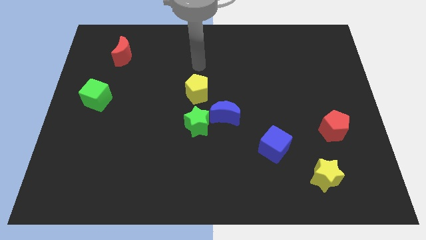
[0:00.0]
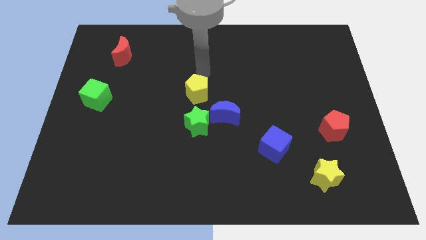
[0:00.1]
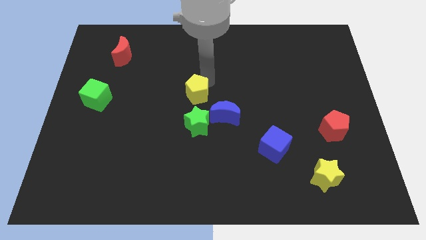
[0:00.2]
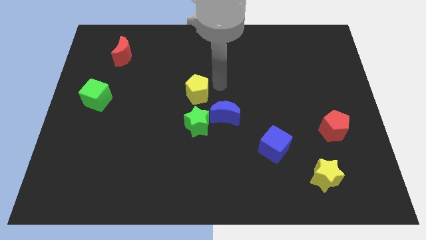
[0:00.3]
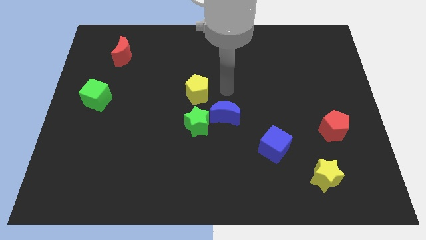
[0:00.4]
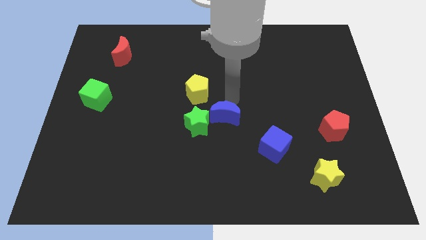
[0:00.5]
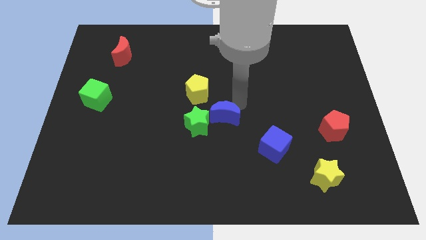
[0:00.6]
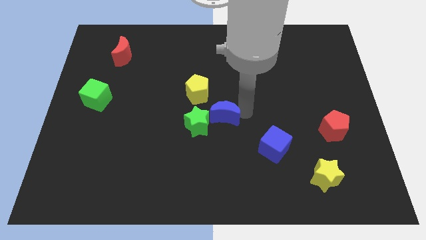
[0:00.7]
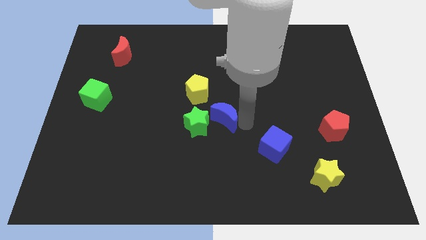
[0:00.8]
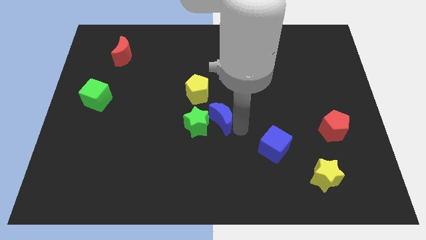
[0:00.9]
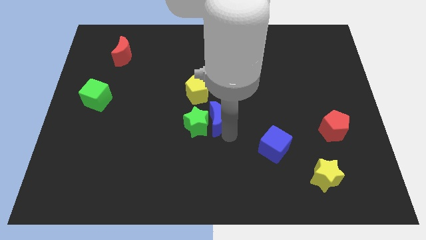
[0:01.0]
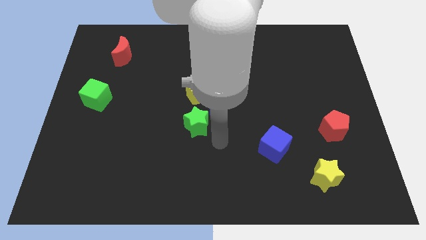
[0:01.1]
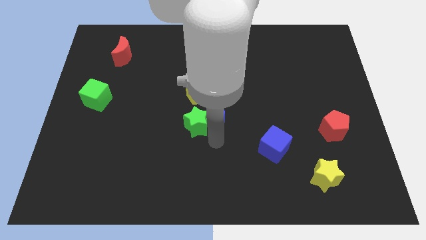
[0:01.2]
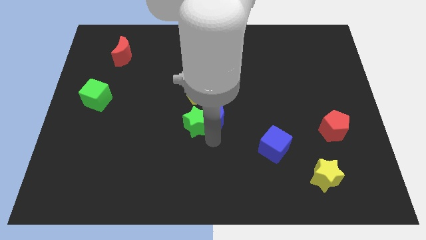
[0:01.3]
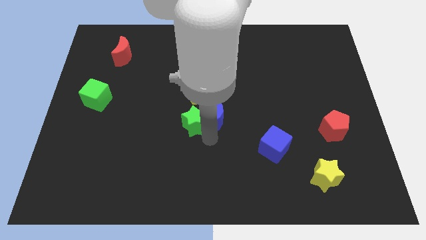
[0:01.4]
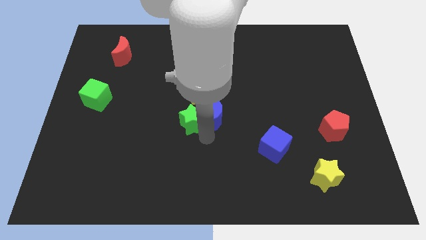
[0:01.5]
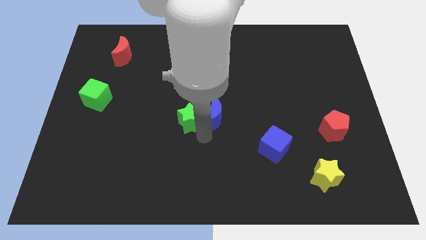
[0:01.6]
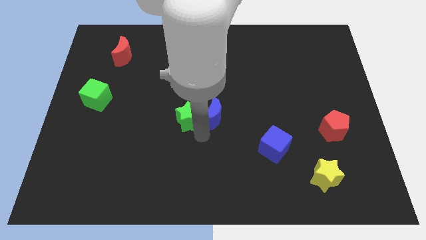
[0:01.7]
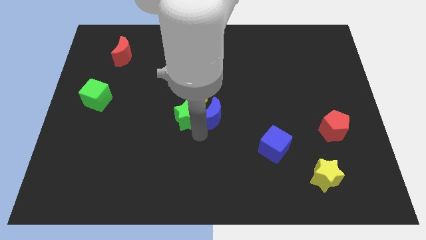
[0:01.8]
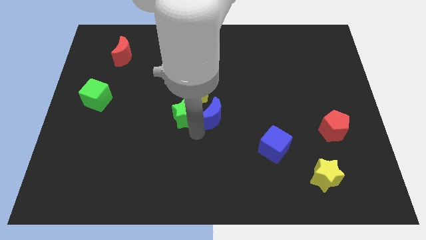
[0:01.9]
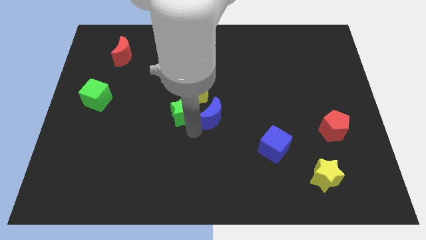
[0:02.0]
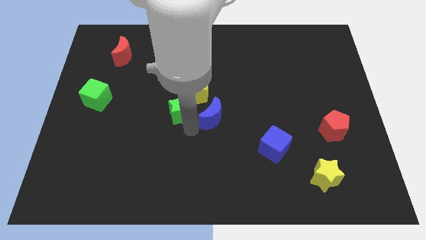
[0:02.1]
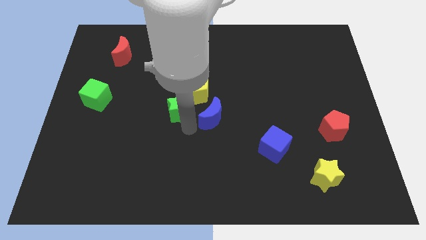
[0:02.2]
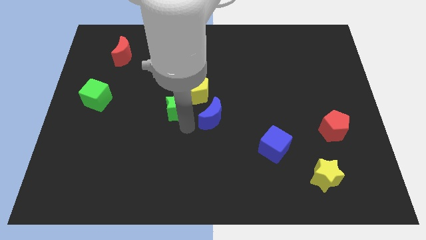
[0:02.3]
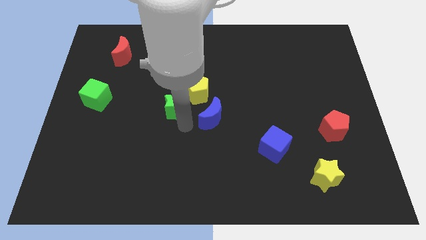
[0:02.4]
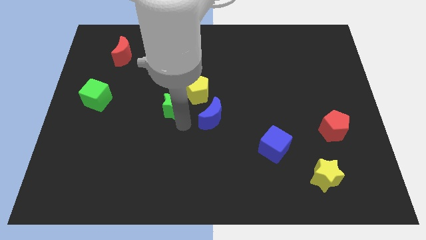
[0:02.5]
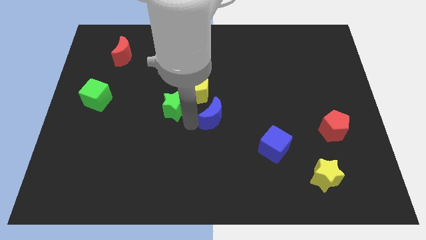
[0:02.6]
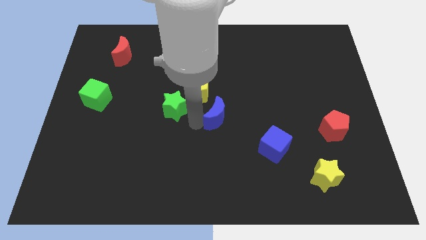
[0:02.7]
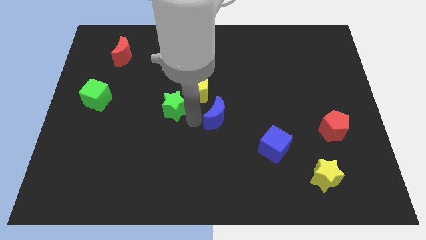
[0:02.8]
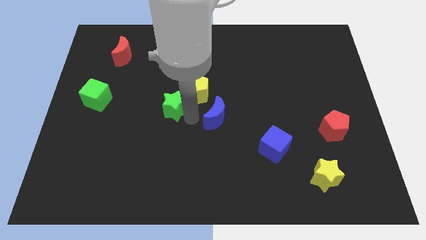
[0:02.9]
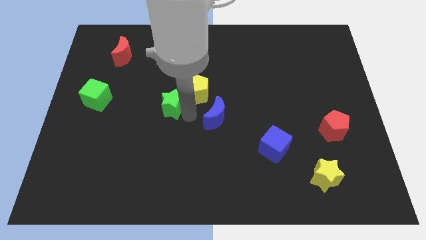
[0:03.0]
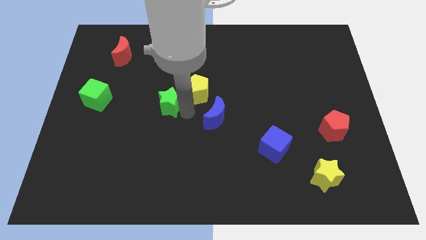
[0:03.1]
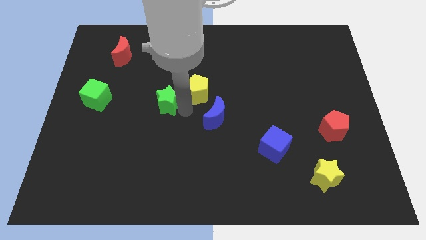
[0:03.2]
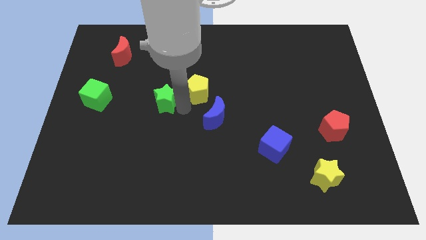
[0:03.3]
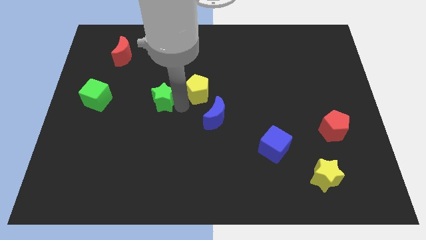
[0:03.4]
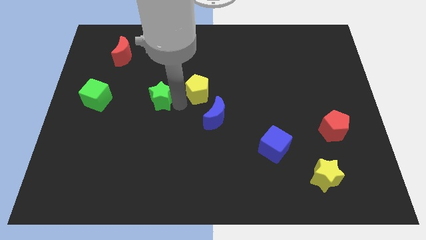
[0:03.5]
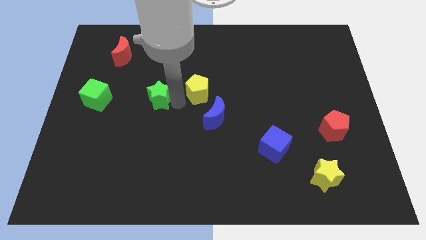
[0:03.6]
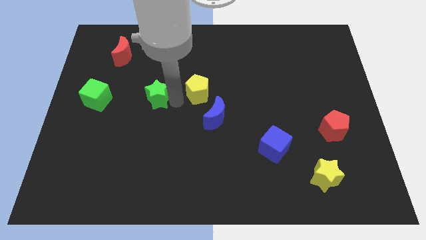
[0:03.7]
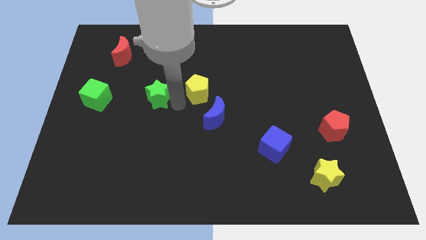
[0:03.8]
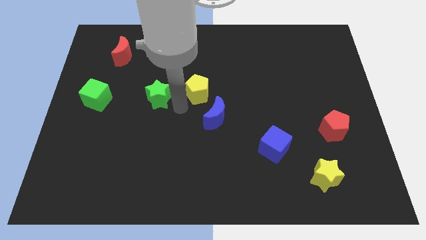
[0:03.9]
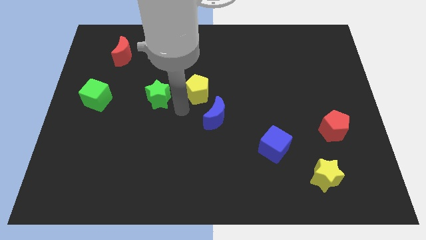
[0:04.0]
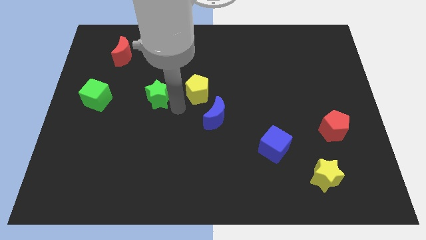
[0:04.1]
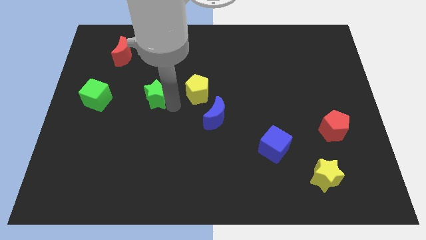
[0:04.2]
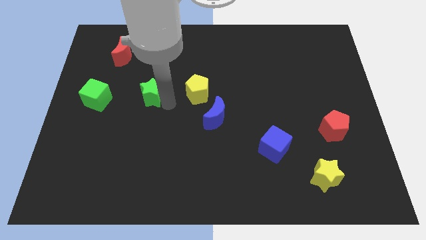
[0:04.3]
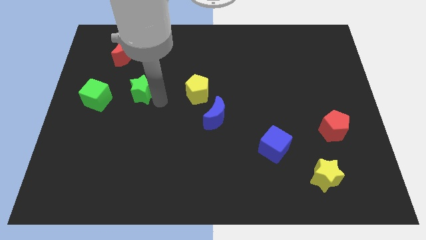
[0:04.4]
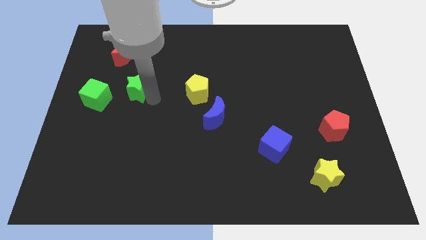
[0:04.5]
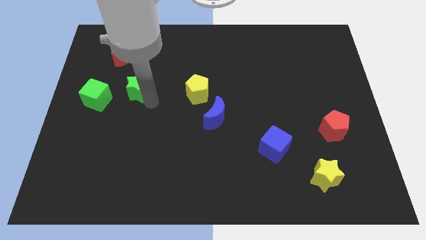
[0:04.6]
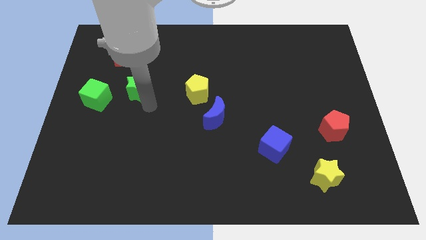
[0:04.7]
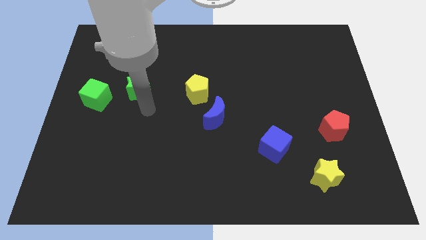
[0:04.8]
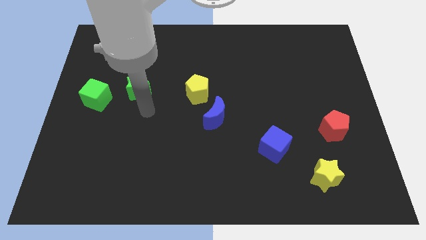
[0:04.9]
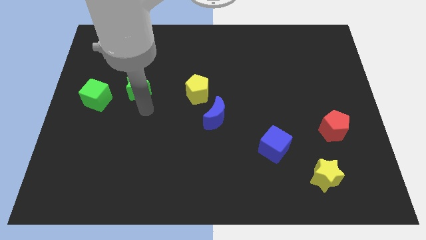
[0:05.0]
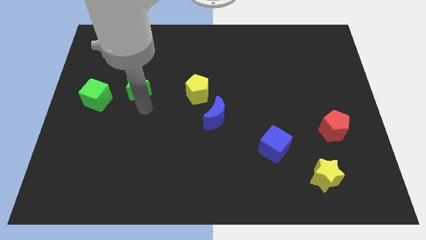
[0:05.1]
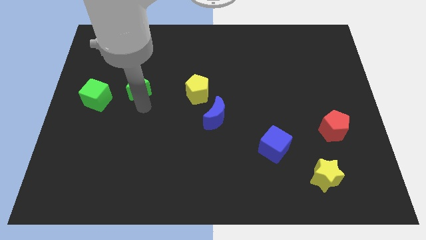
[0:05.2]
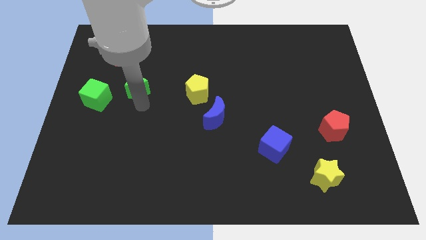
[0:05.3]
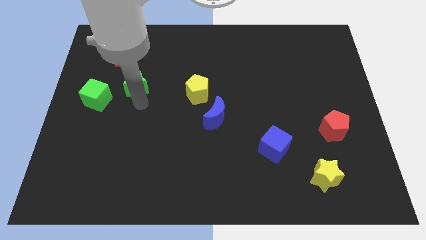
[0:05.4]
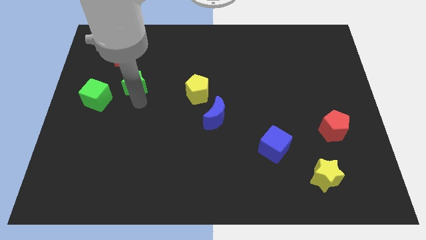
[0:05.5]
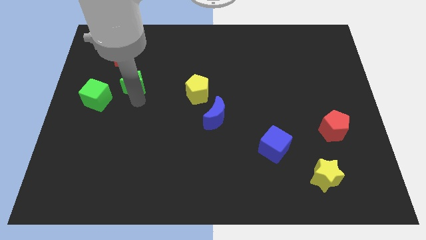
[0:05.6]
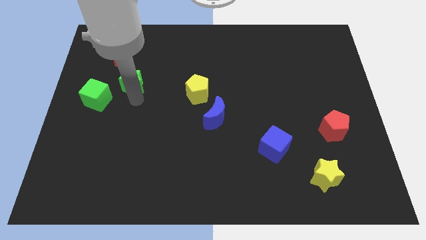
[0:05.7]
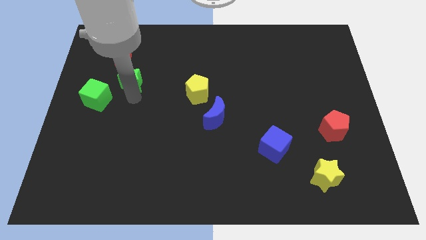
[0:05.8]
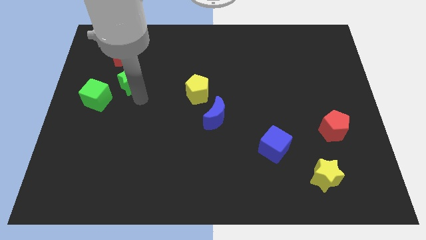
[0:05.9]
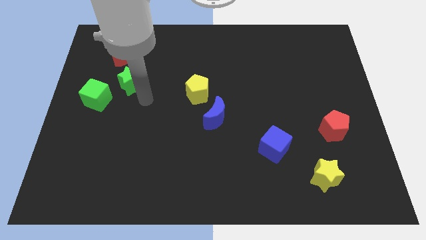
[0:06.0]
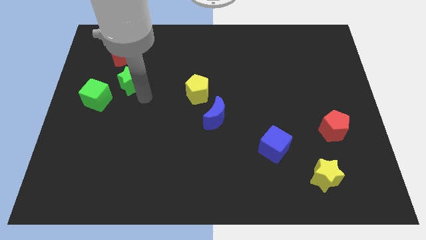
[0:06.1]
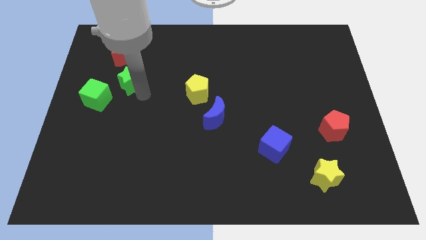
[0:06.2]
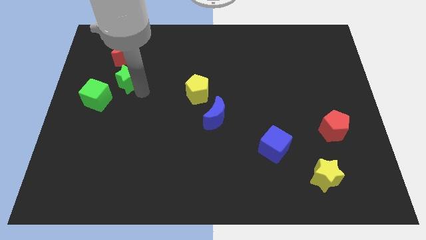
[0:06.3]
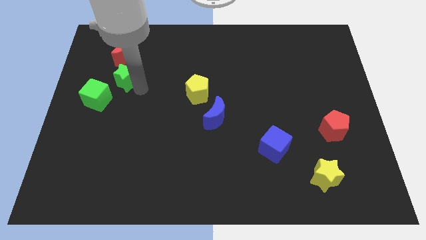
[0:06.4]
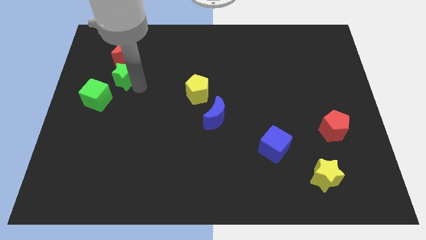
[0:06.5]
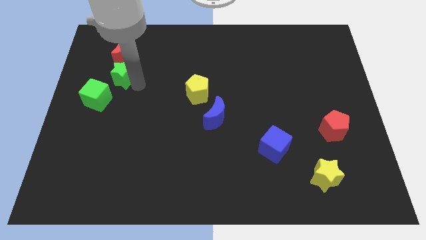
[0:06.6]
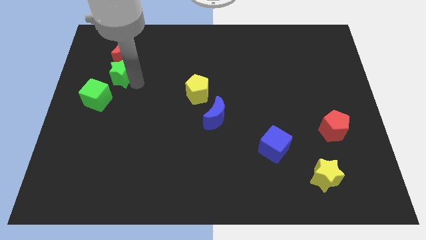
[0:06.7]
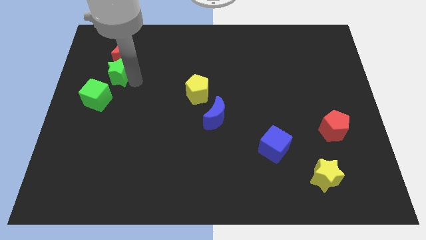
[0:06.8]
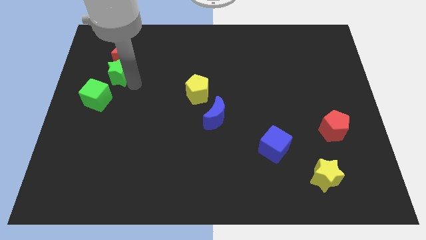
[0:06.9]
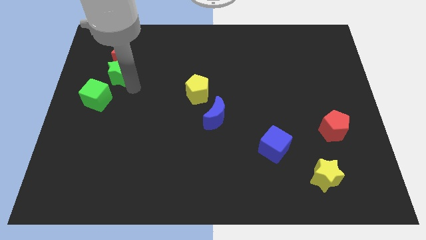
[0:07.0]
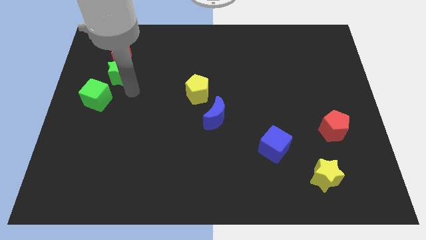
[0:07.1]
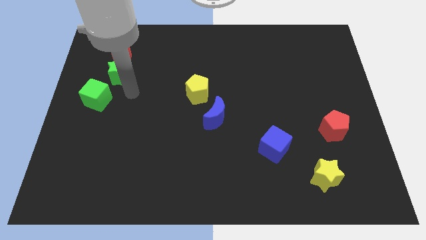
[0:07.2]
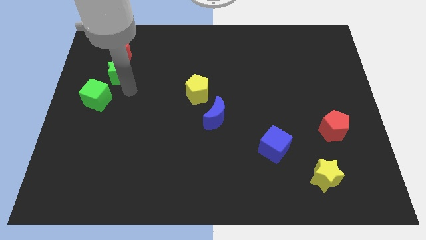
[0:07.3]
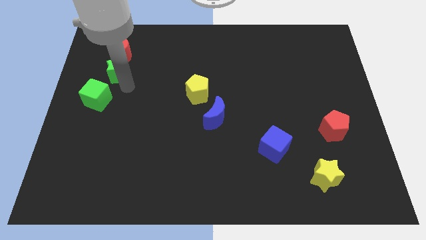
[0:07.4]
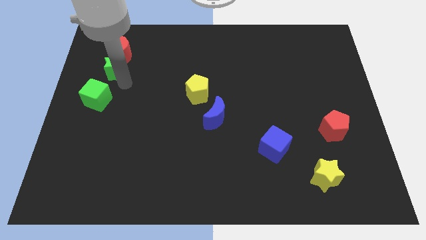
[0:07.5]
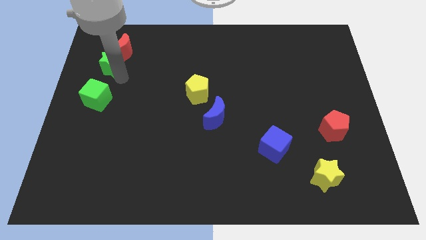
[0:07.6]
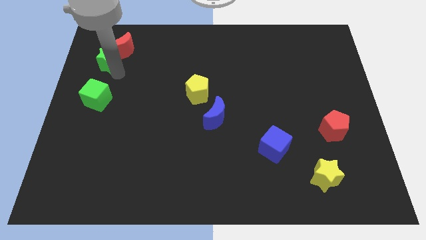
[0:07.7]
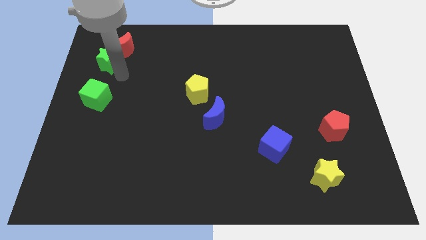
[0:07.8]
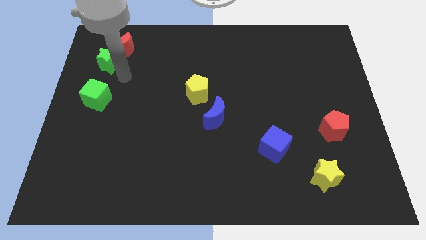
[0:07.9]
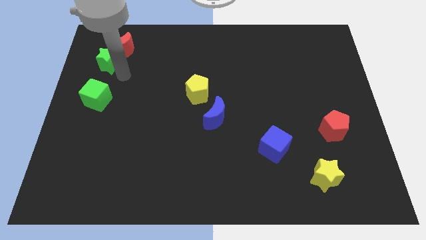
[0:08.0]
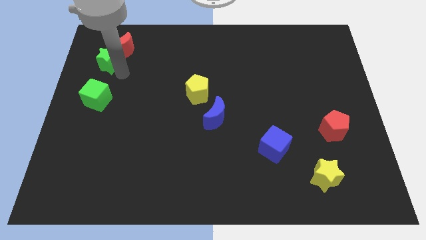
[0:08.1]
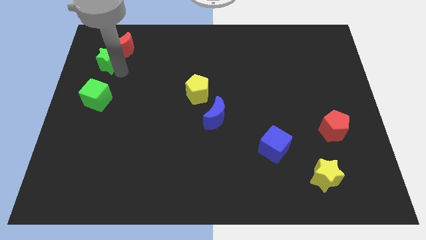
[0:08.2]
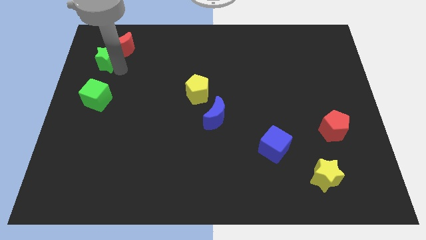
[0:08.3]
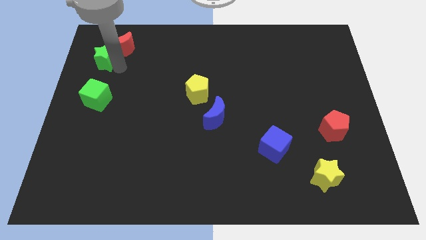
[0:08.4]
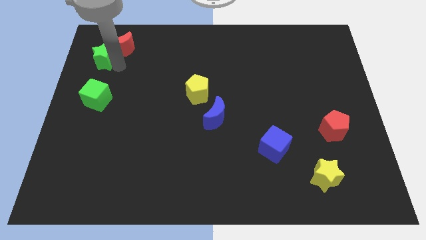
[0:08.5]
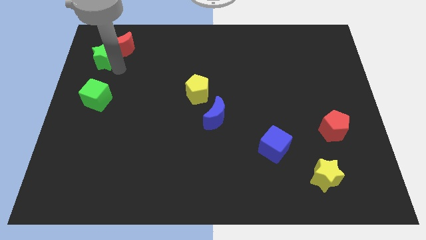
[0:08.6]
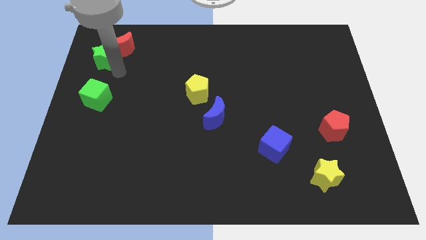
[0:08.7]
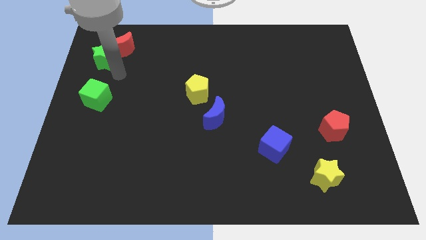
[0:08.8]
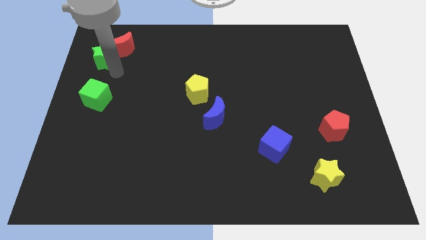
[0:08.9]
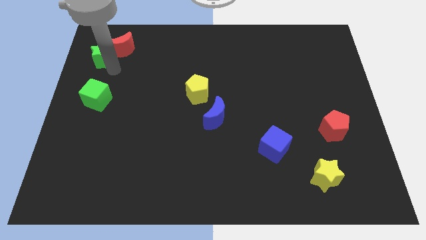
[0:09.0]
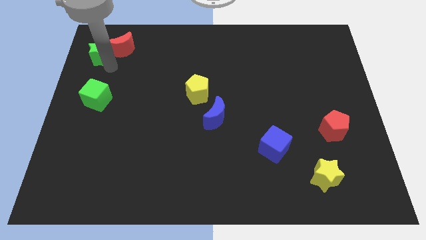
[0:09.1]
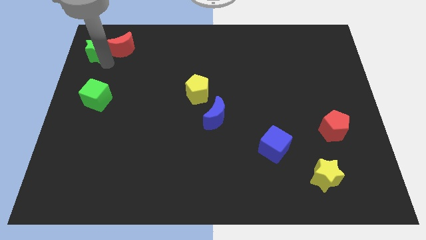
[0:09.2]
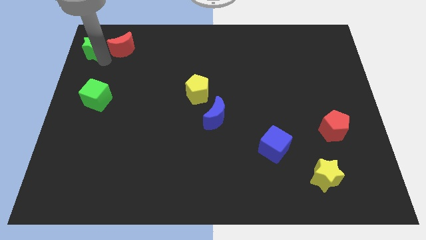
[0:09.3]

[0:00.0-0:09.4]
push the green star to the top left
